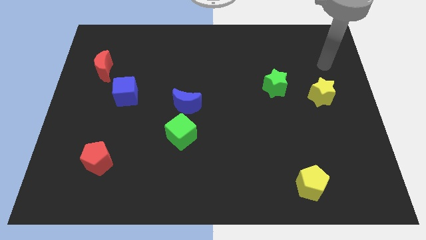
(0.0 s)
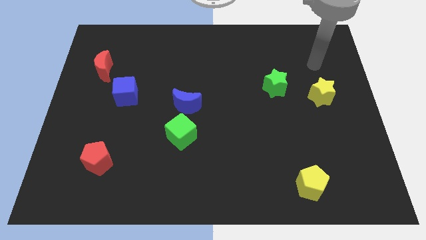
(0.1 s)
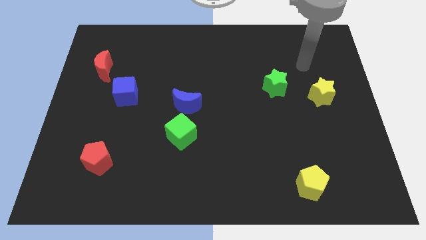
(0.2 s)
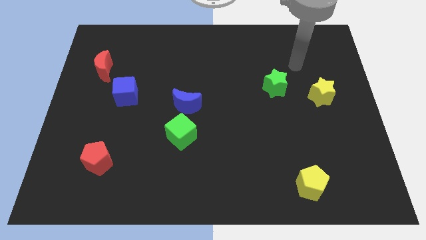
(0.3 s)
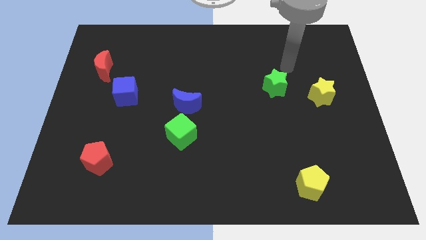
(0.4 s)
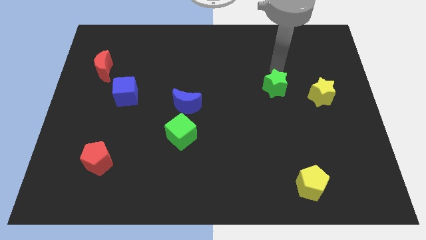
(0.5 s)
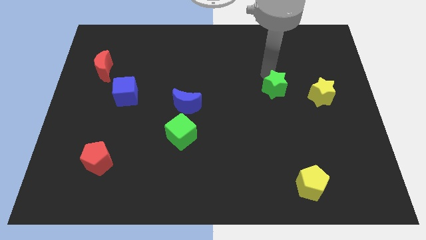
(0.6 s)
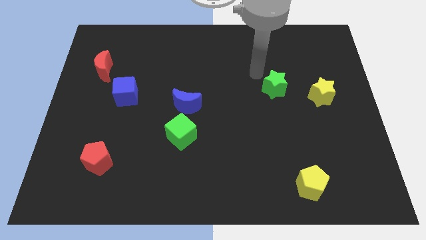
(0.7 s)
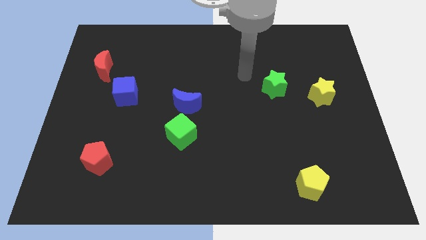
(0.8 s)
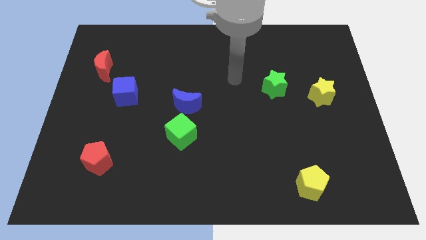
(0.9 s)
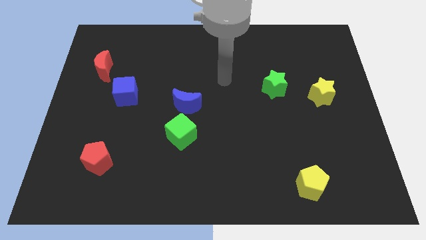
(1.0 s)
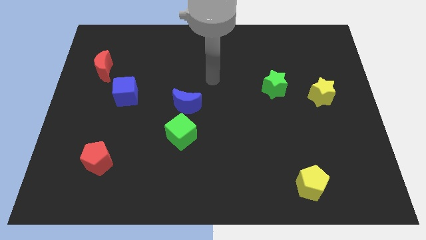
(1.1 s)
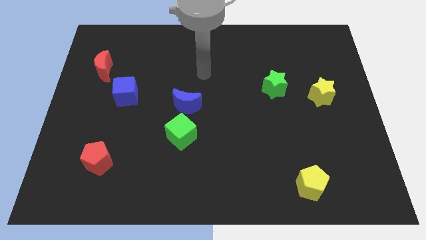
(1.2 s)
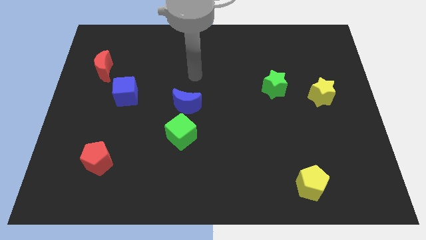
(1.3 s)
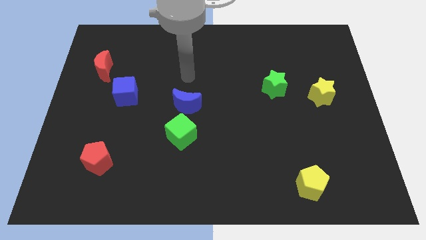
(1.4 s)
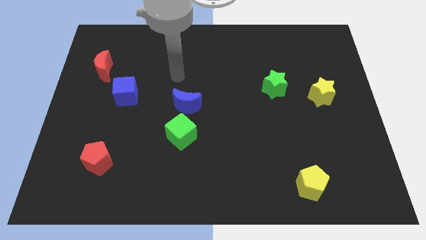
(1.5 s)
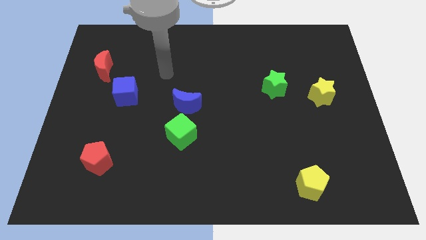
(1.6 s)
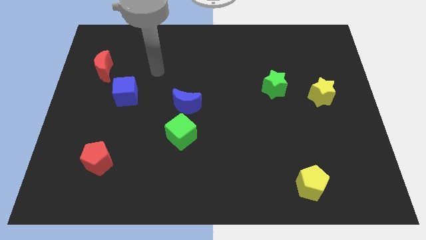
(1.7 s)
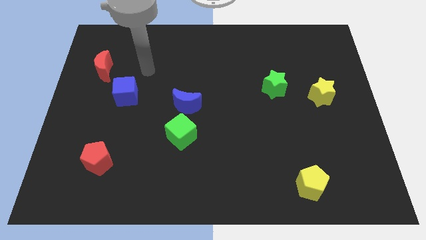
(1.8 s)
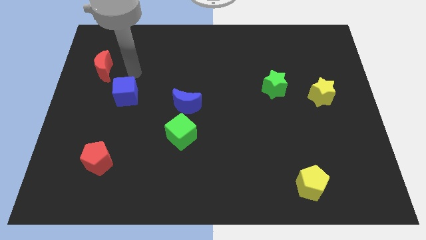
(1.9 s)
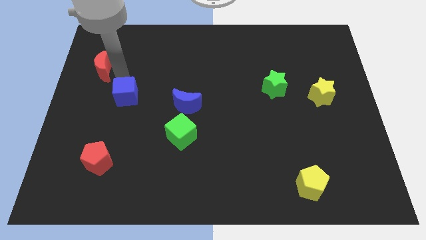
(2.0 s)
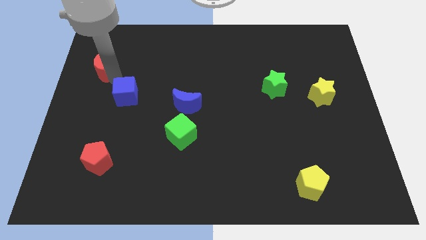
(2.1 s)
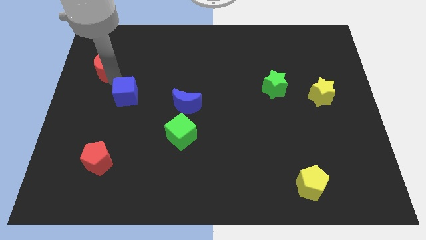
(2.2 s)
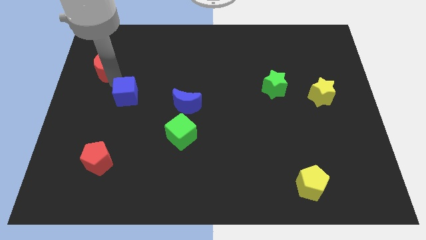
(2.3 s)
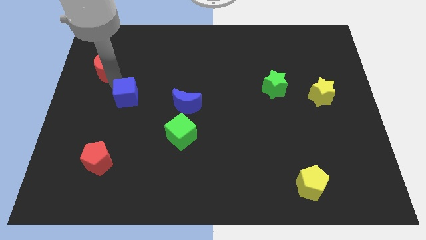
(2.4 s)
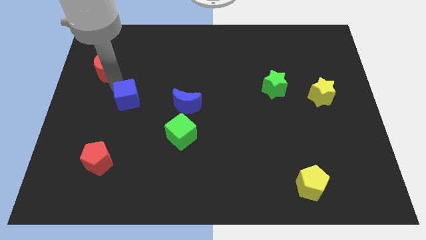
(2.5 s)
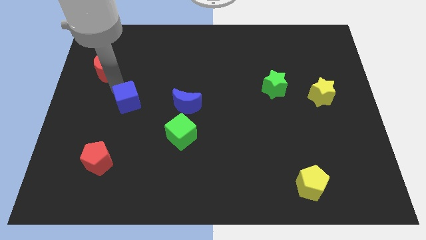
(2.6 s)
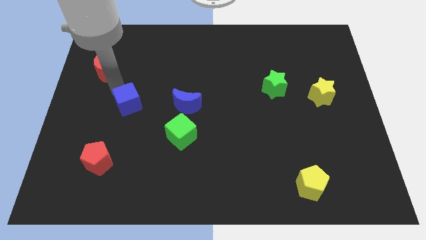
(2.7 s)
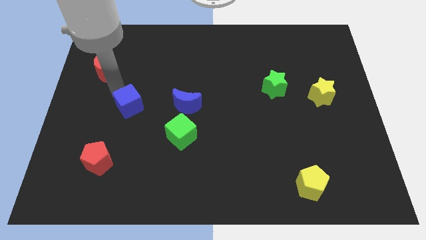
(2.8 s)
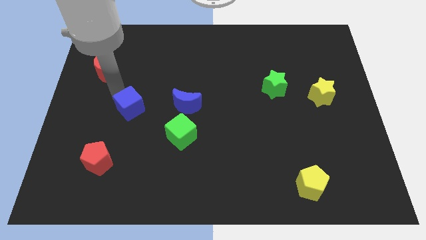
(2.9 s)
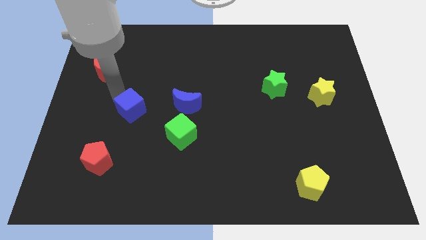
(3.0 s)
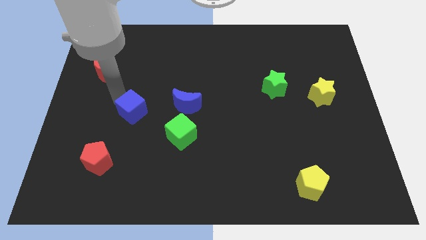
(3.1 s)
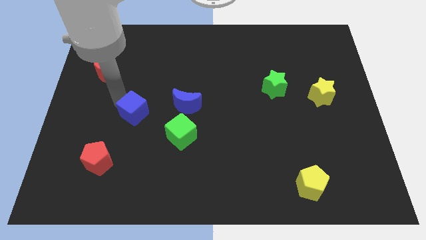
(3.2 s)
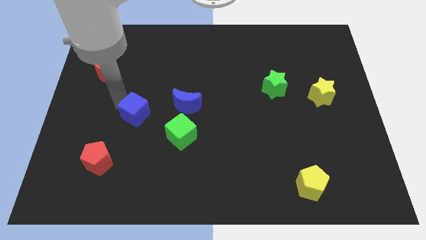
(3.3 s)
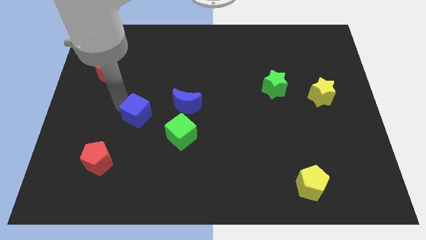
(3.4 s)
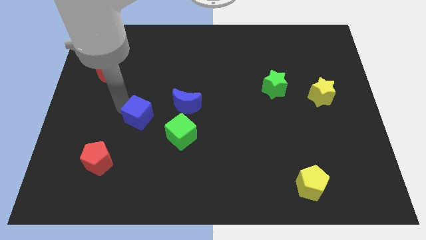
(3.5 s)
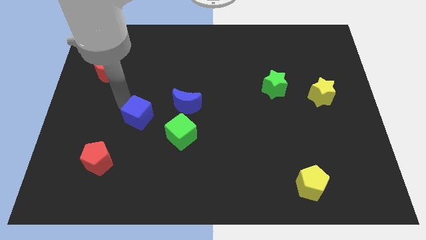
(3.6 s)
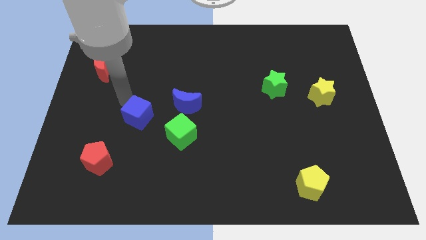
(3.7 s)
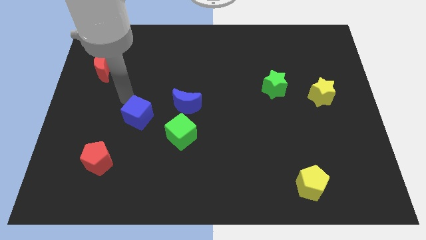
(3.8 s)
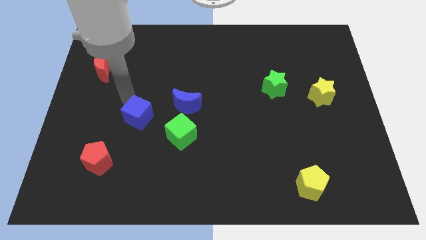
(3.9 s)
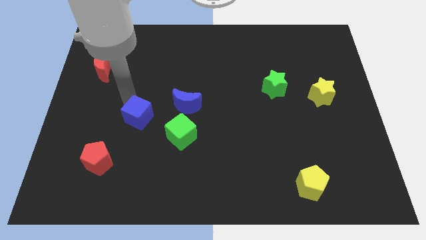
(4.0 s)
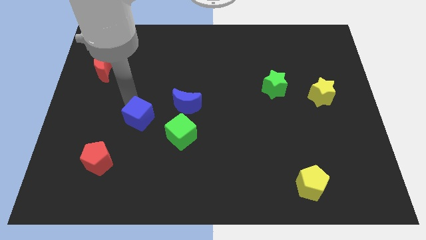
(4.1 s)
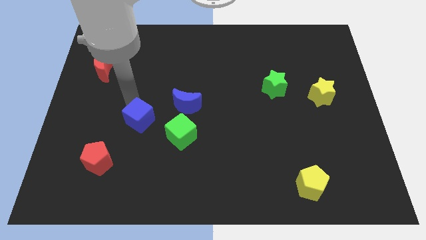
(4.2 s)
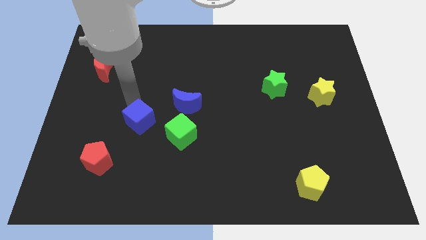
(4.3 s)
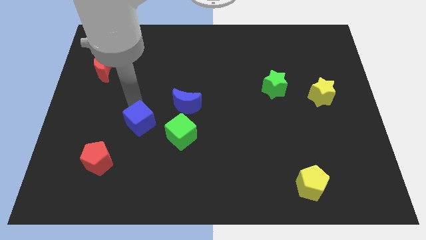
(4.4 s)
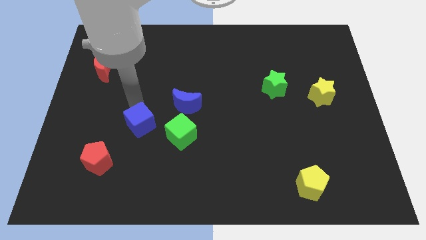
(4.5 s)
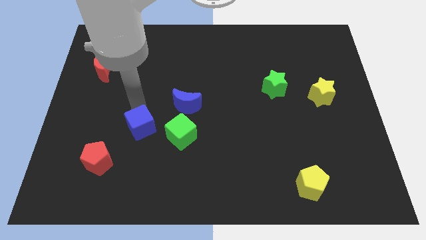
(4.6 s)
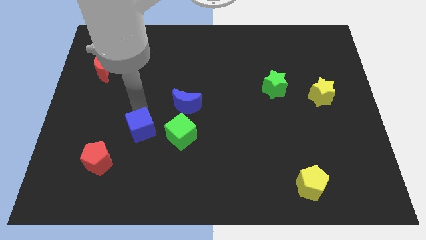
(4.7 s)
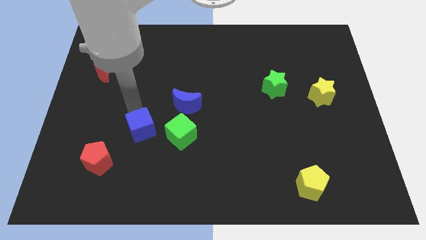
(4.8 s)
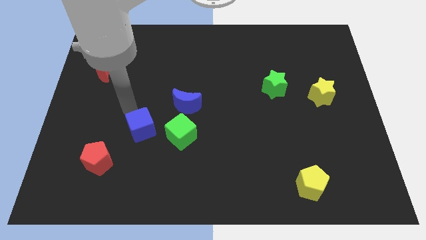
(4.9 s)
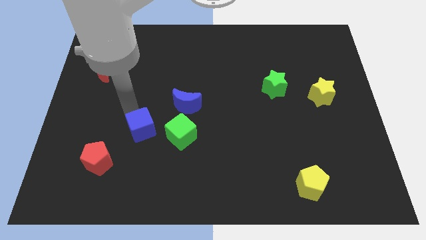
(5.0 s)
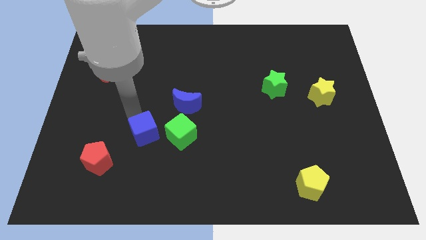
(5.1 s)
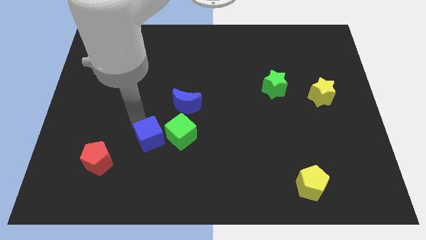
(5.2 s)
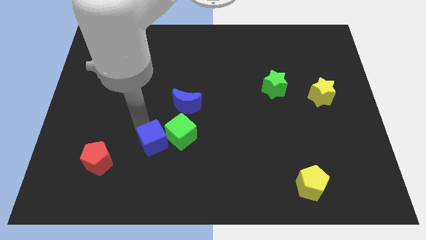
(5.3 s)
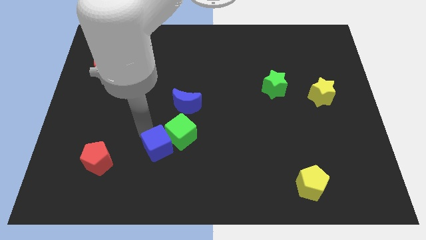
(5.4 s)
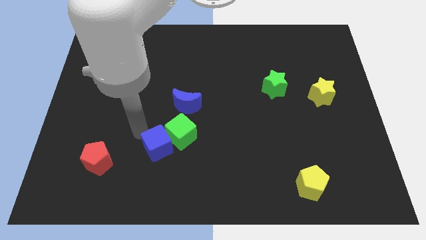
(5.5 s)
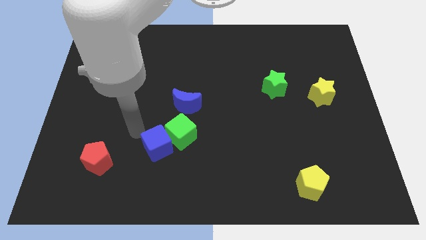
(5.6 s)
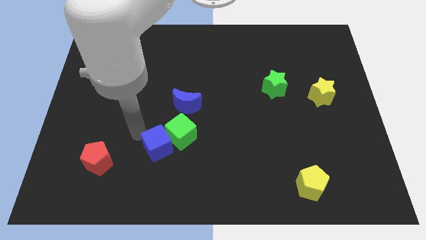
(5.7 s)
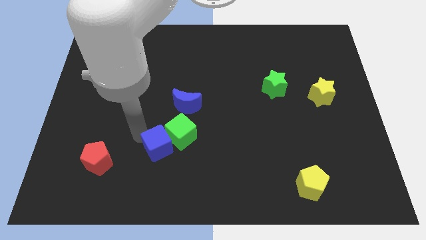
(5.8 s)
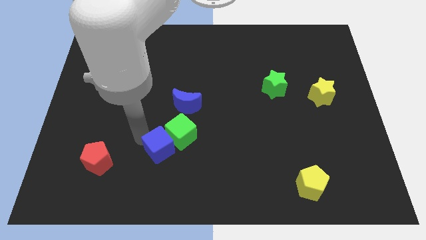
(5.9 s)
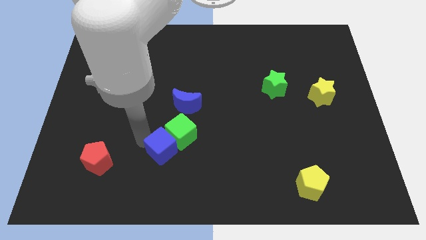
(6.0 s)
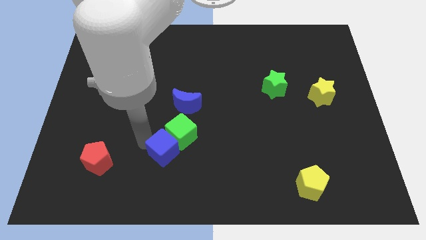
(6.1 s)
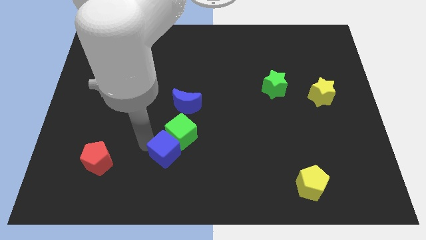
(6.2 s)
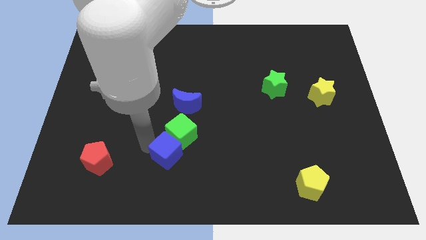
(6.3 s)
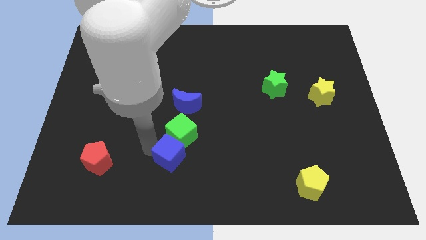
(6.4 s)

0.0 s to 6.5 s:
push the blue cube down and right

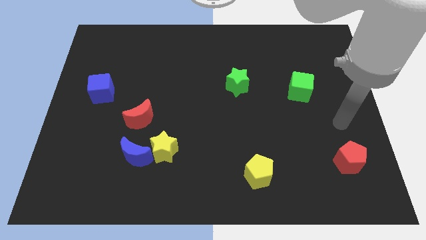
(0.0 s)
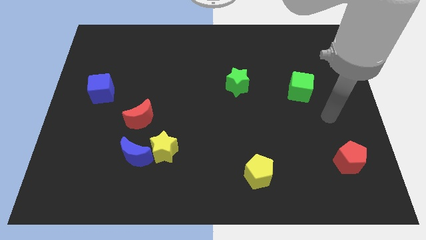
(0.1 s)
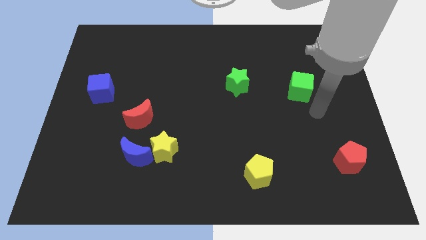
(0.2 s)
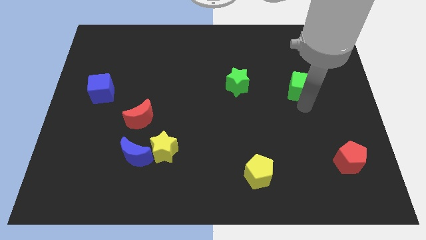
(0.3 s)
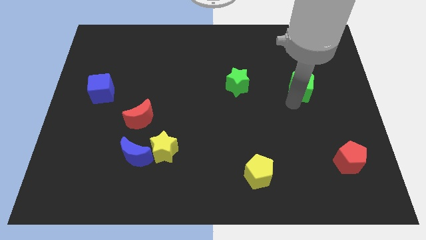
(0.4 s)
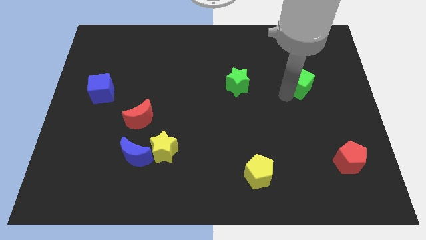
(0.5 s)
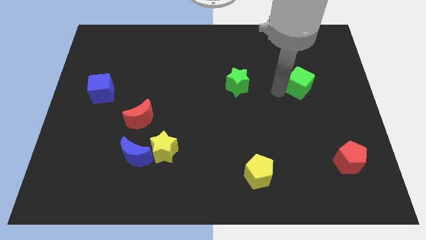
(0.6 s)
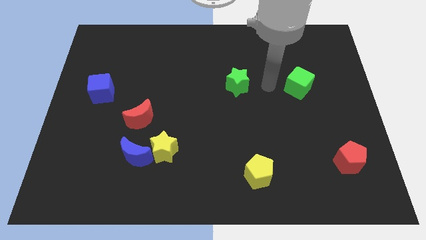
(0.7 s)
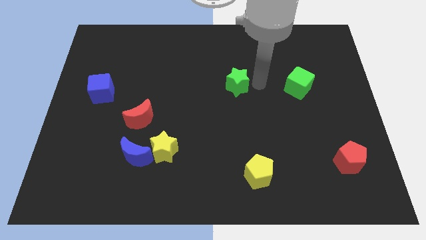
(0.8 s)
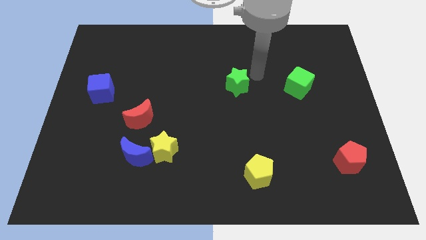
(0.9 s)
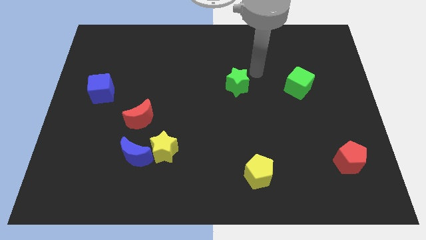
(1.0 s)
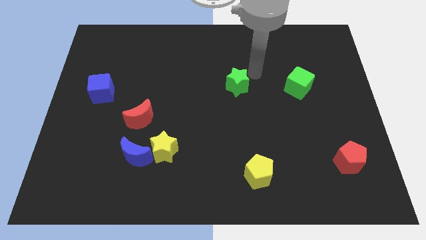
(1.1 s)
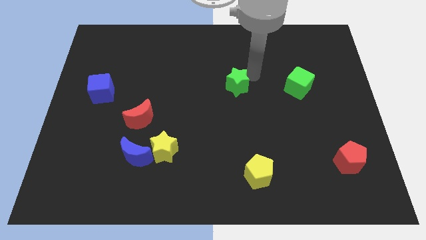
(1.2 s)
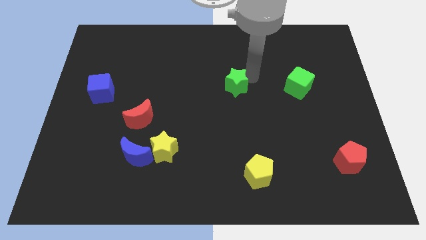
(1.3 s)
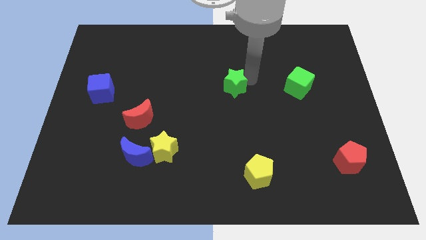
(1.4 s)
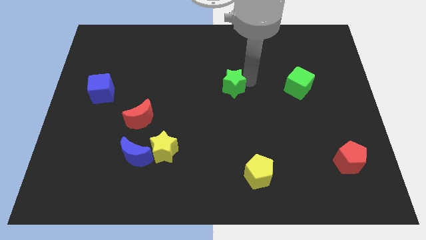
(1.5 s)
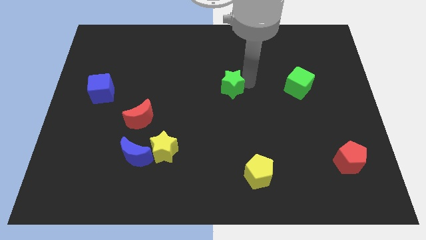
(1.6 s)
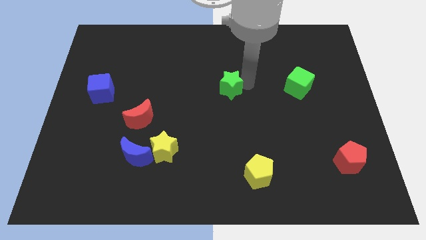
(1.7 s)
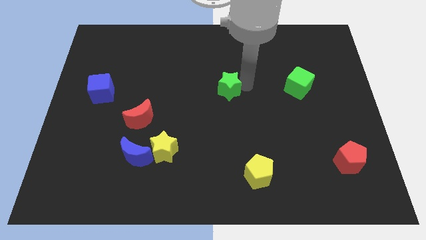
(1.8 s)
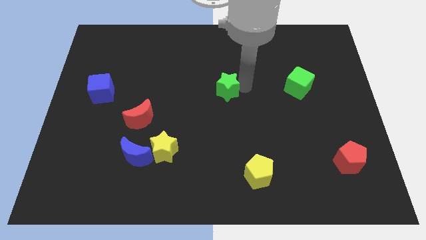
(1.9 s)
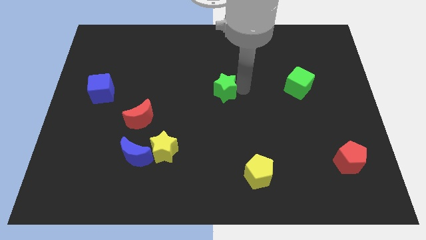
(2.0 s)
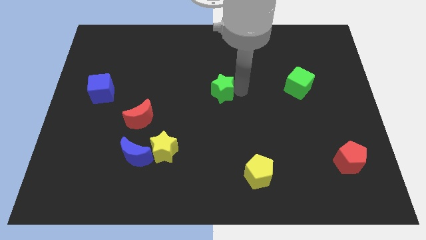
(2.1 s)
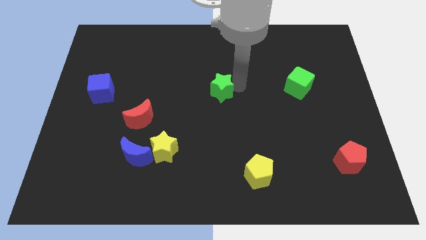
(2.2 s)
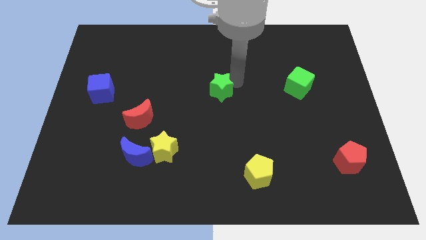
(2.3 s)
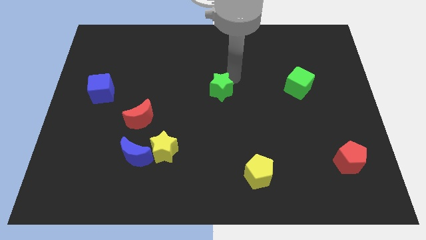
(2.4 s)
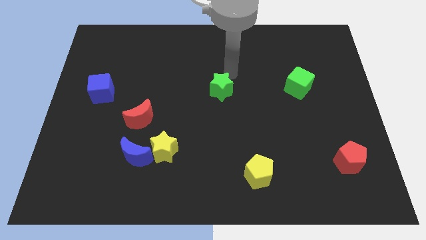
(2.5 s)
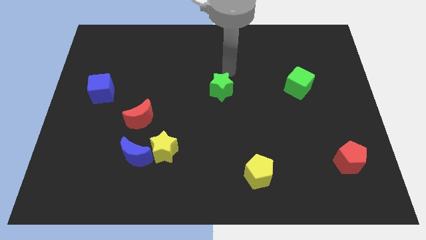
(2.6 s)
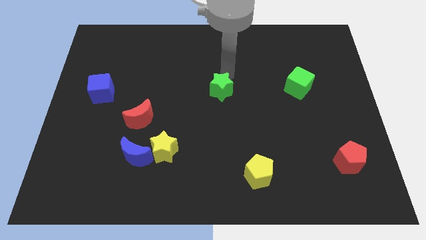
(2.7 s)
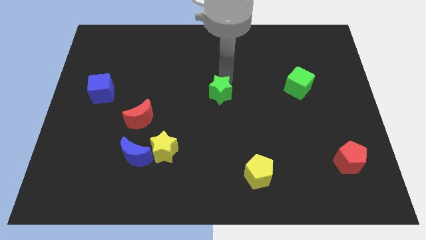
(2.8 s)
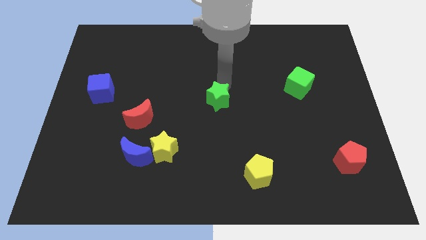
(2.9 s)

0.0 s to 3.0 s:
slightly move the green star downwards and left diagonally
